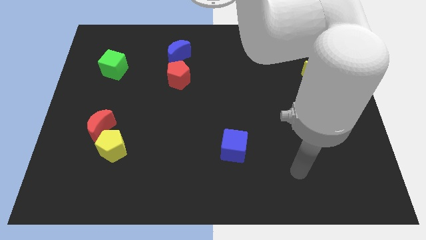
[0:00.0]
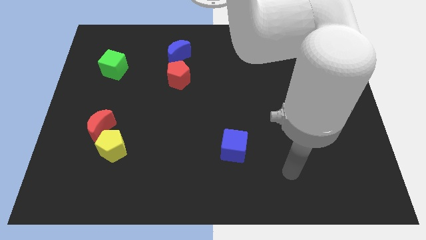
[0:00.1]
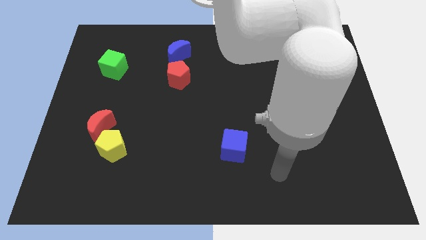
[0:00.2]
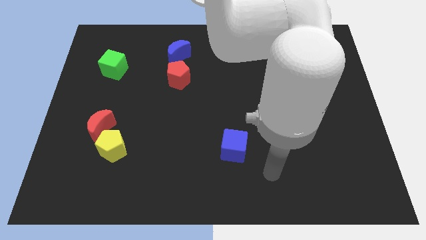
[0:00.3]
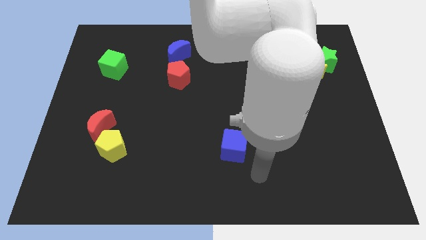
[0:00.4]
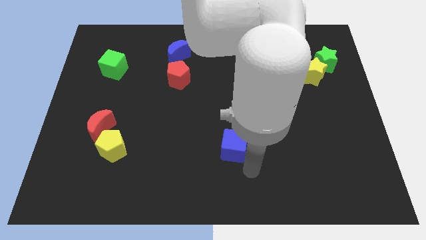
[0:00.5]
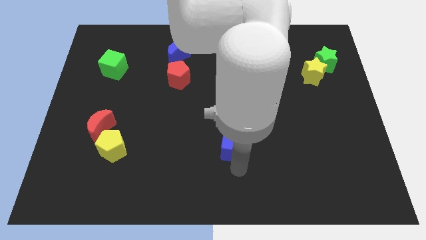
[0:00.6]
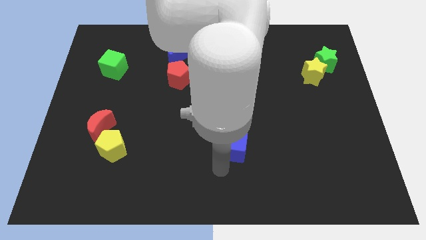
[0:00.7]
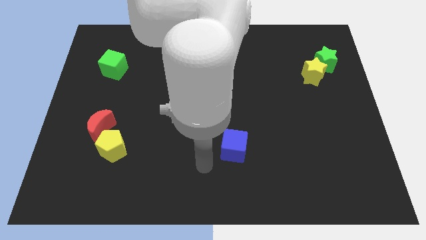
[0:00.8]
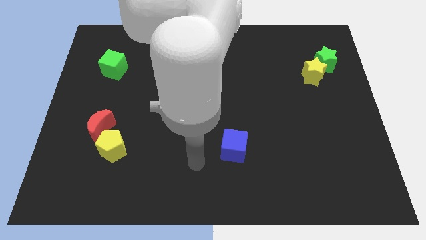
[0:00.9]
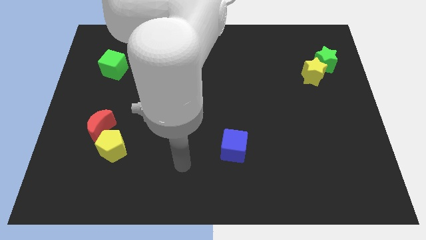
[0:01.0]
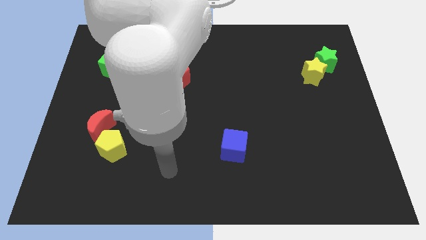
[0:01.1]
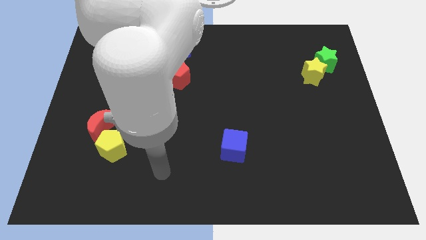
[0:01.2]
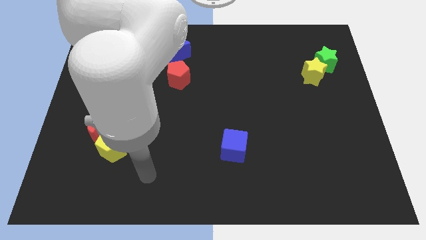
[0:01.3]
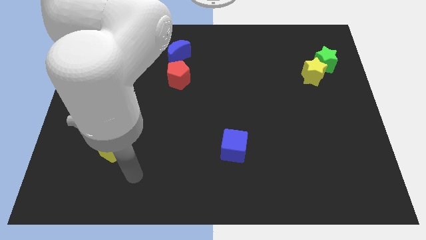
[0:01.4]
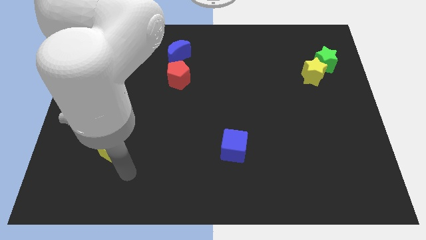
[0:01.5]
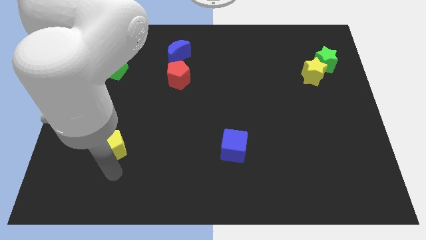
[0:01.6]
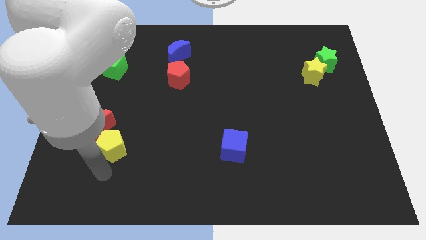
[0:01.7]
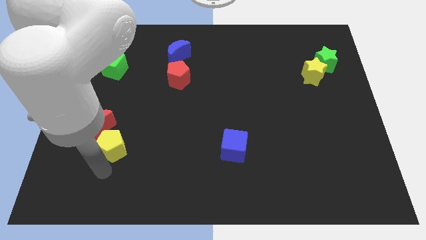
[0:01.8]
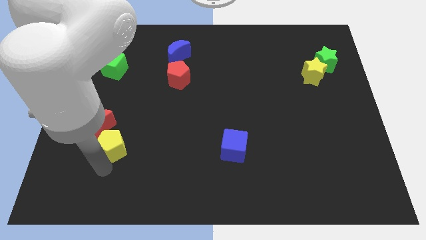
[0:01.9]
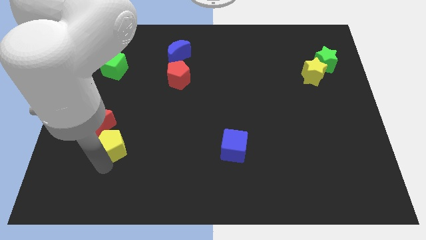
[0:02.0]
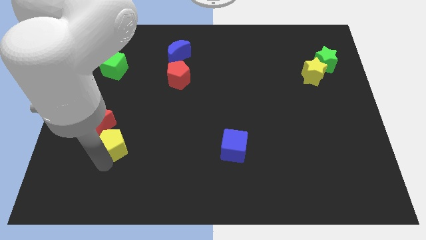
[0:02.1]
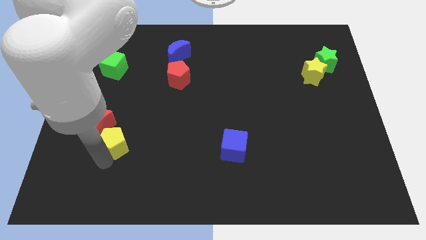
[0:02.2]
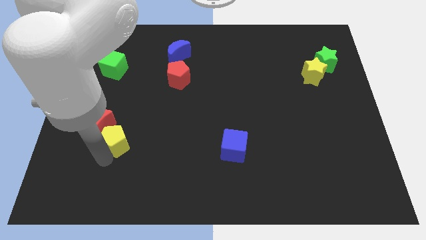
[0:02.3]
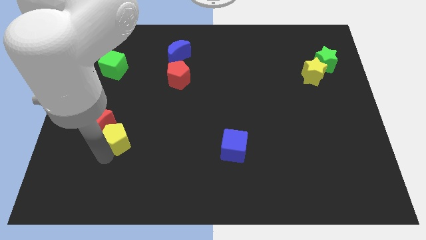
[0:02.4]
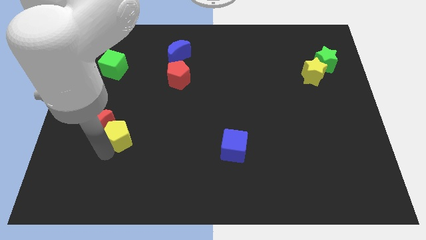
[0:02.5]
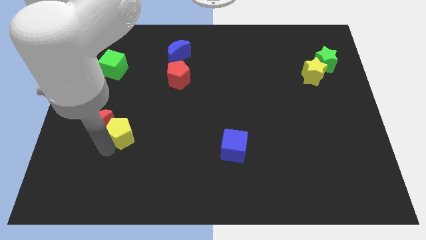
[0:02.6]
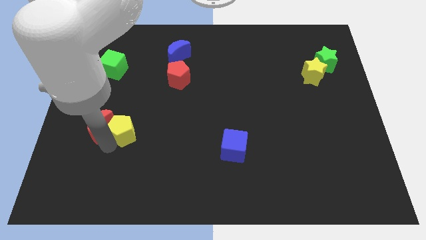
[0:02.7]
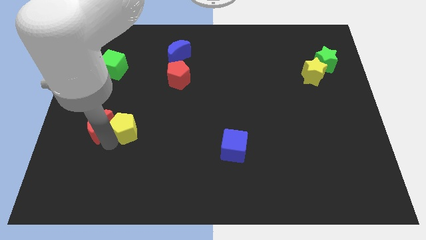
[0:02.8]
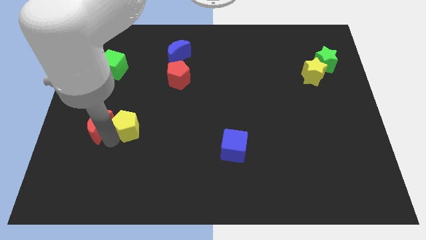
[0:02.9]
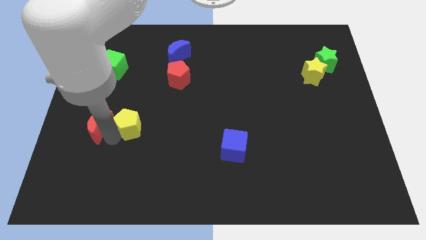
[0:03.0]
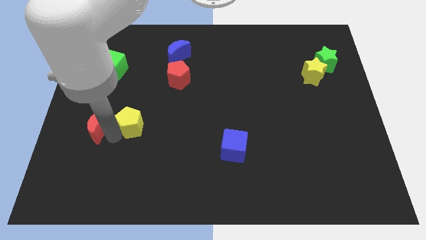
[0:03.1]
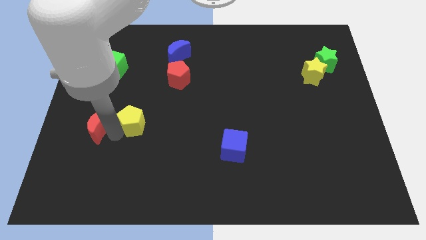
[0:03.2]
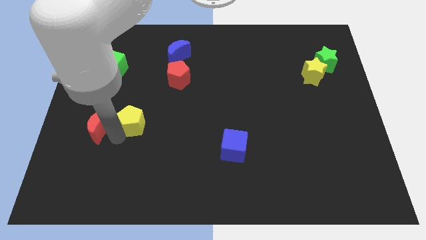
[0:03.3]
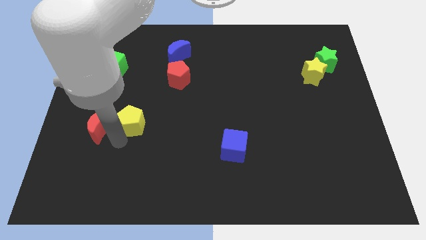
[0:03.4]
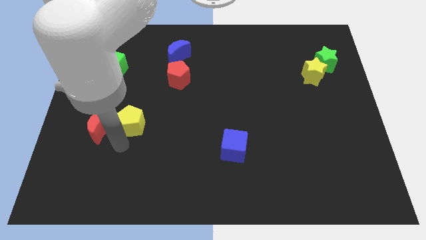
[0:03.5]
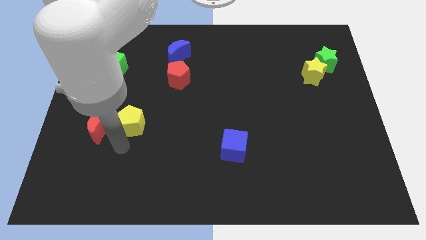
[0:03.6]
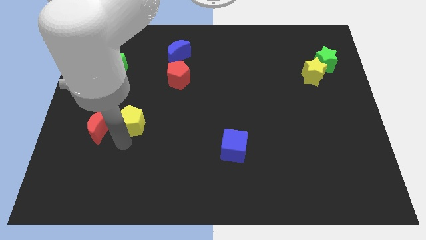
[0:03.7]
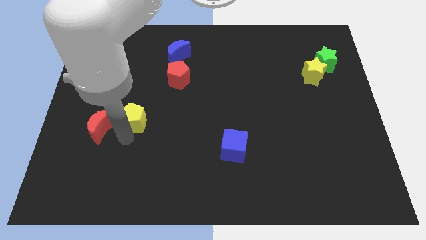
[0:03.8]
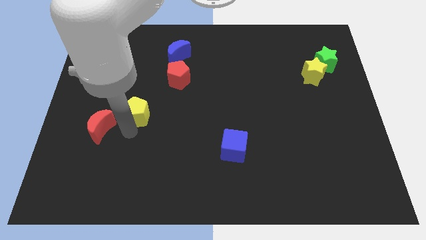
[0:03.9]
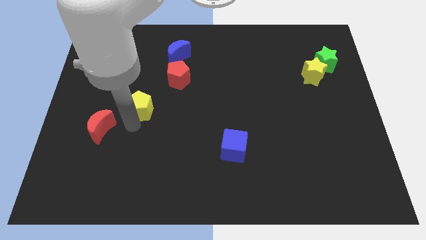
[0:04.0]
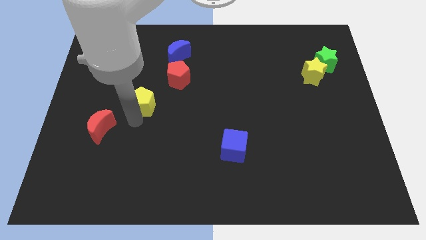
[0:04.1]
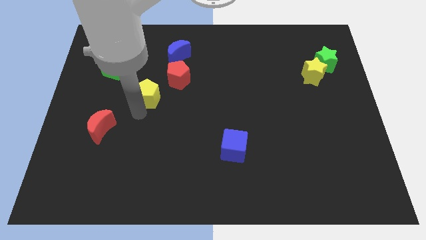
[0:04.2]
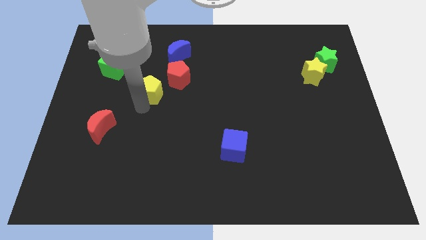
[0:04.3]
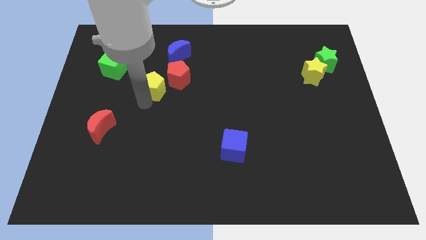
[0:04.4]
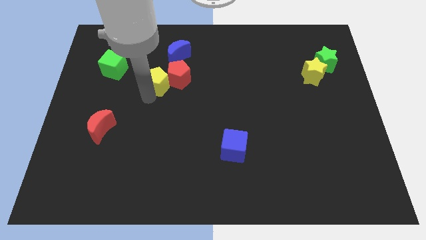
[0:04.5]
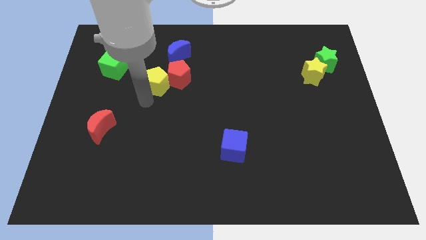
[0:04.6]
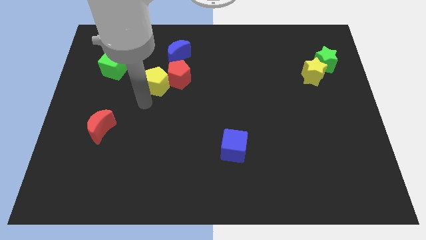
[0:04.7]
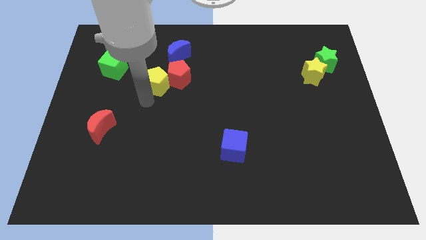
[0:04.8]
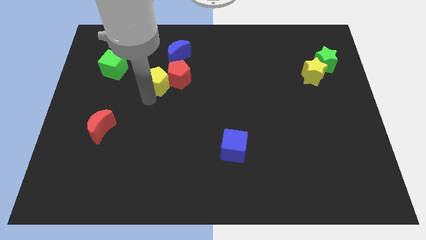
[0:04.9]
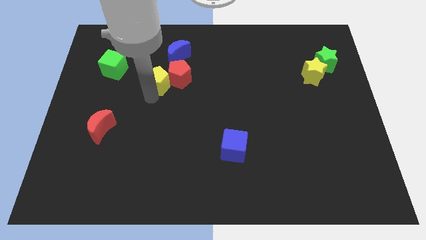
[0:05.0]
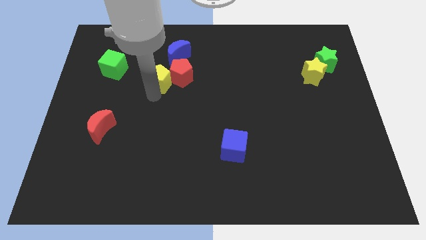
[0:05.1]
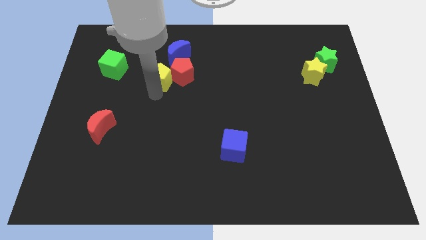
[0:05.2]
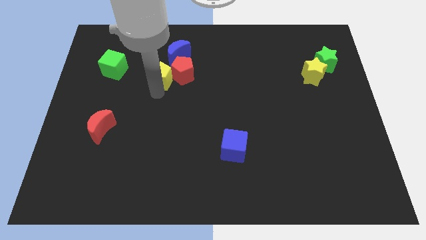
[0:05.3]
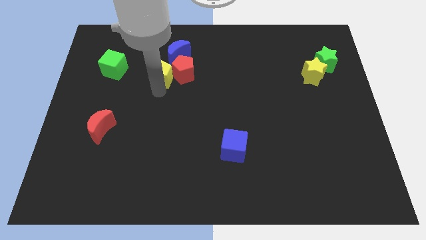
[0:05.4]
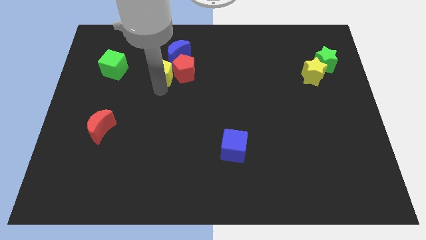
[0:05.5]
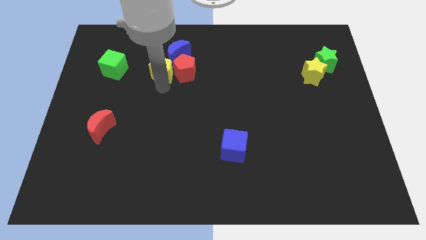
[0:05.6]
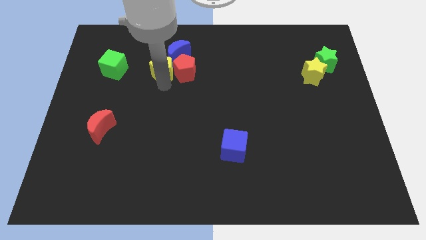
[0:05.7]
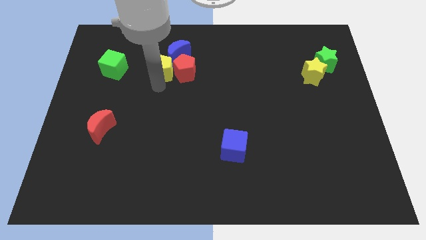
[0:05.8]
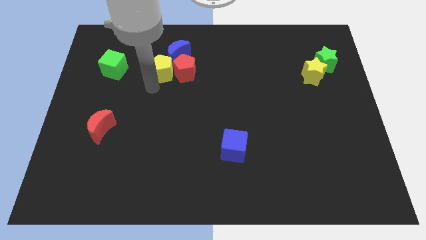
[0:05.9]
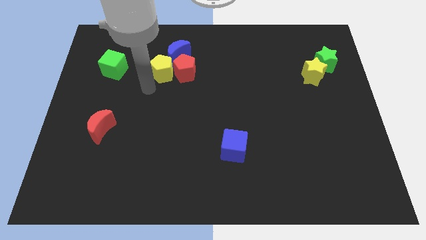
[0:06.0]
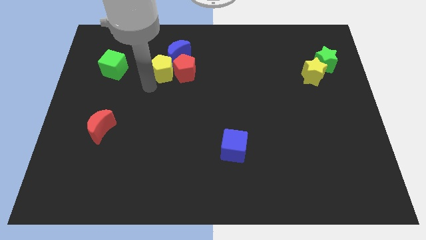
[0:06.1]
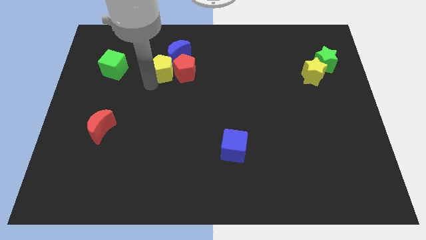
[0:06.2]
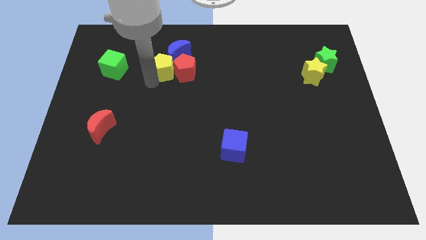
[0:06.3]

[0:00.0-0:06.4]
put the yellow pentagon towards the blue moon

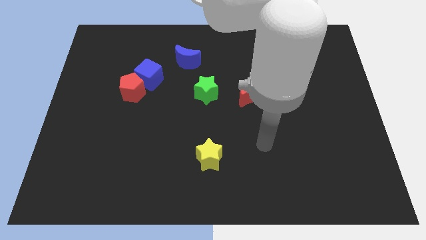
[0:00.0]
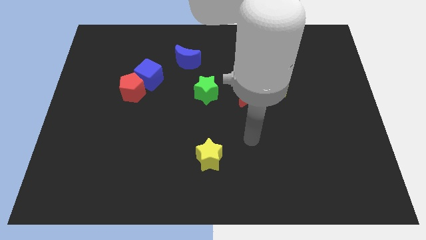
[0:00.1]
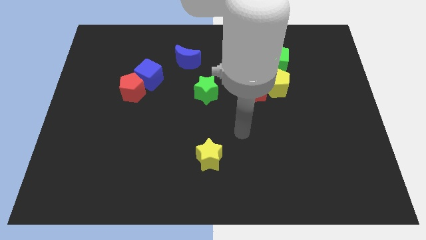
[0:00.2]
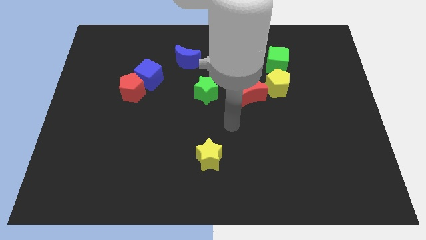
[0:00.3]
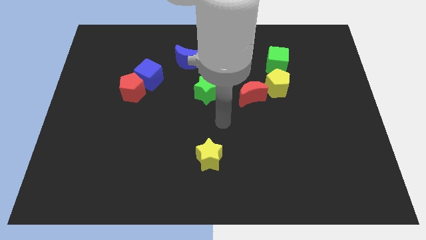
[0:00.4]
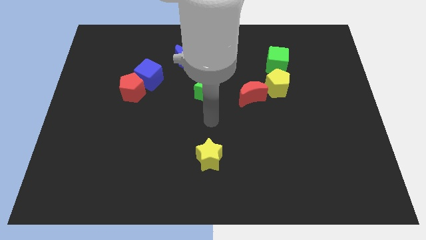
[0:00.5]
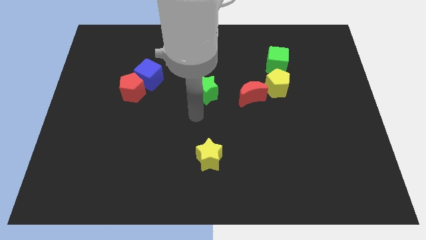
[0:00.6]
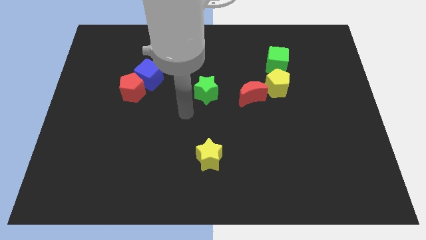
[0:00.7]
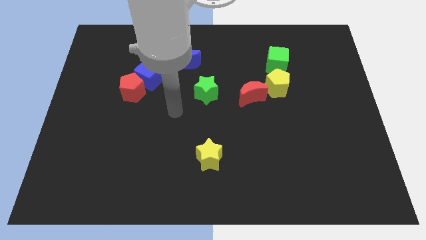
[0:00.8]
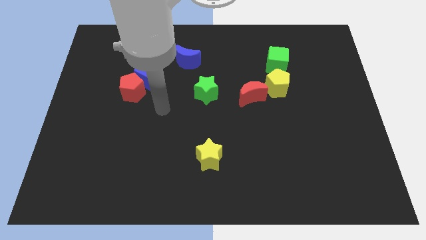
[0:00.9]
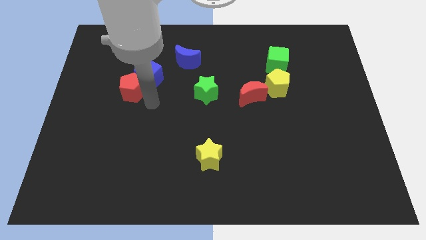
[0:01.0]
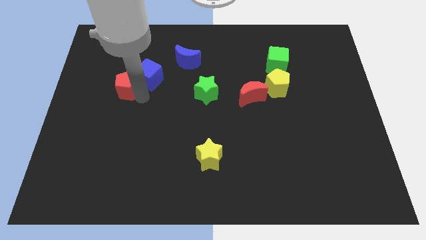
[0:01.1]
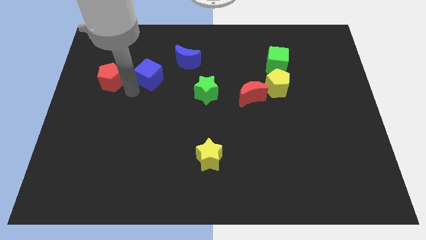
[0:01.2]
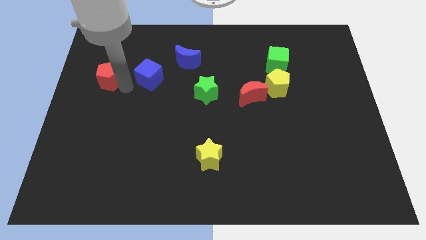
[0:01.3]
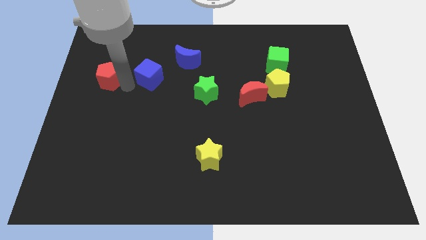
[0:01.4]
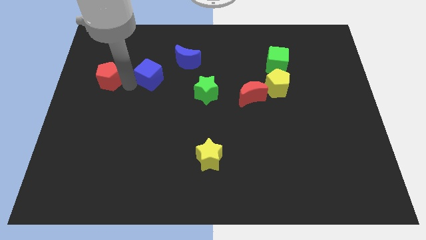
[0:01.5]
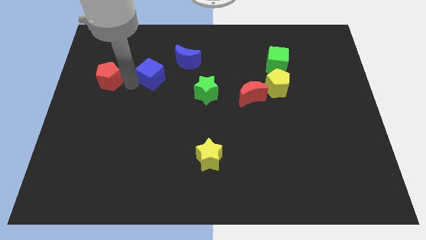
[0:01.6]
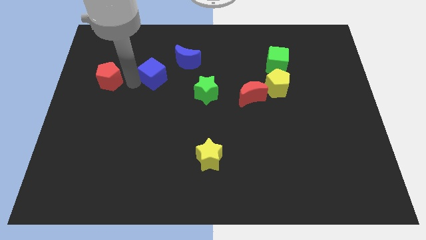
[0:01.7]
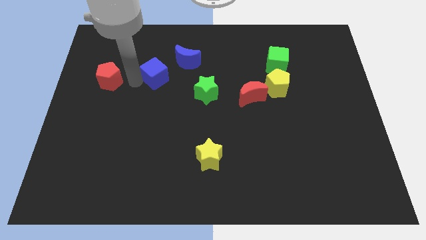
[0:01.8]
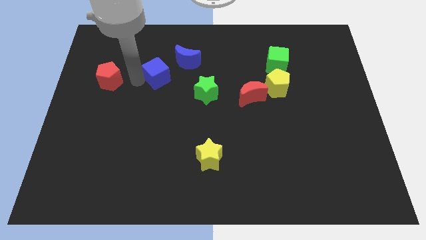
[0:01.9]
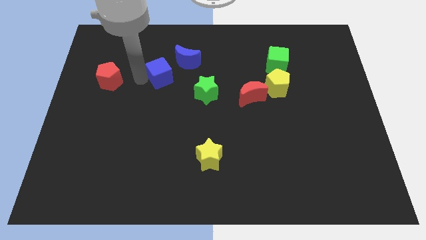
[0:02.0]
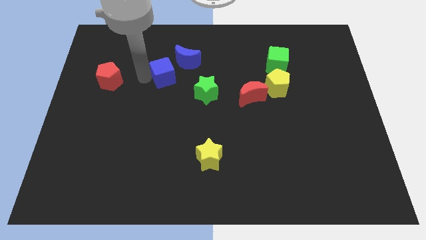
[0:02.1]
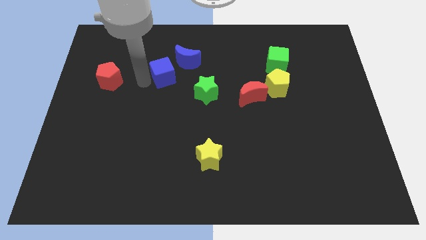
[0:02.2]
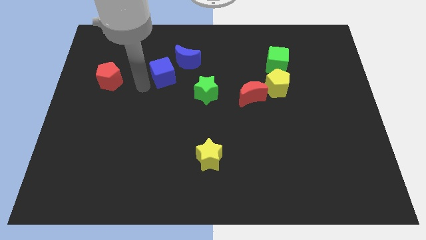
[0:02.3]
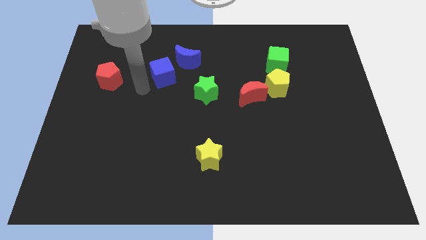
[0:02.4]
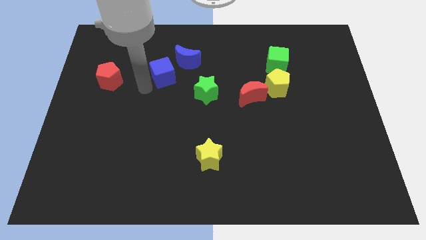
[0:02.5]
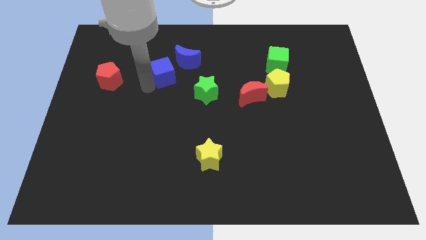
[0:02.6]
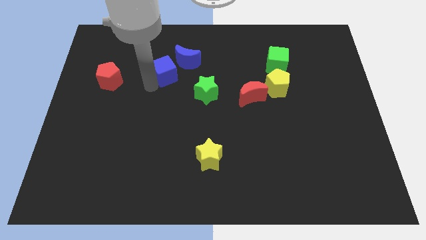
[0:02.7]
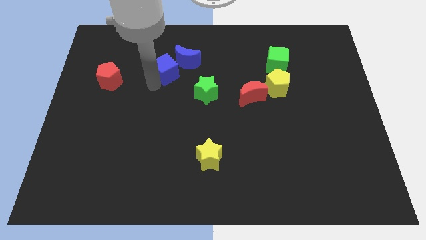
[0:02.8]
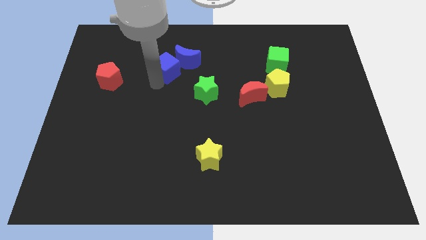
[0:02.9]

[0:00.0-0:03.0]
push the blue cube close to the blue moon
